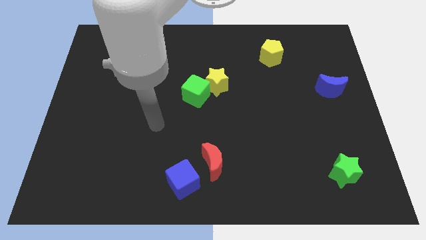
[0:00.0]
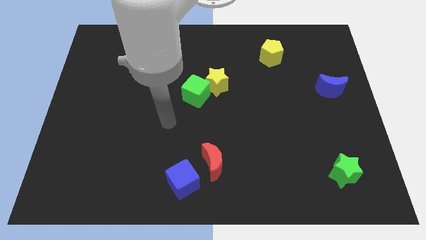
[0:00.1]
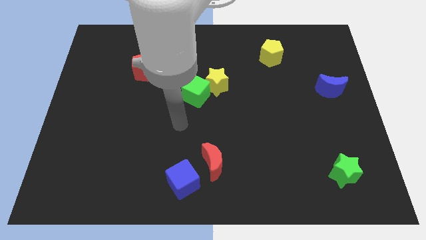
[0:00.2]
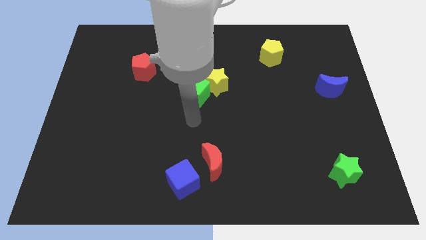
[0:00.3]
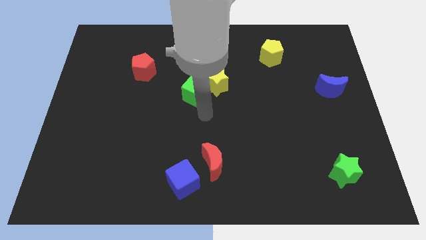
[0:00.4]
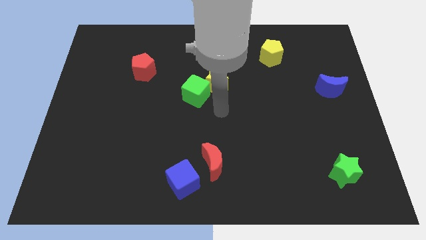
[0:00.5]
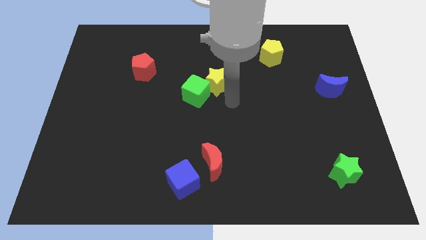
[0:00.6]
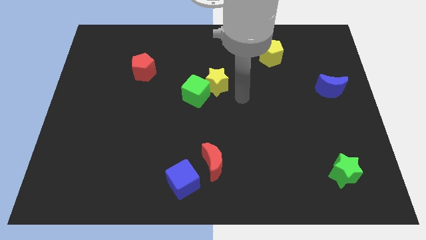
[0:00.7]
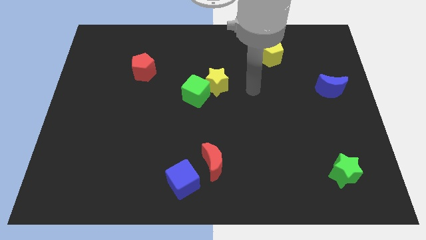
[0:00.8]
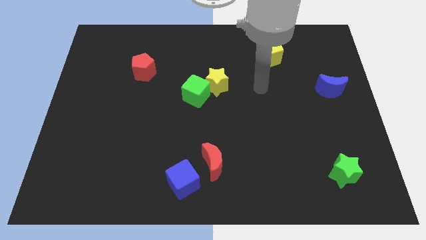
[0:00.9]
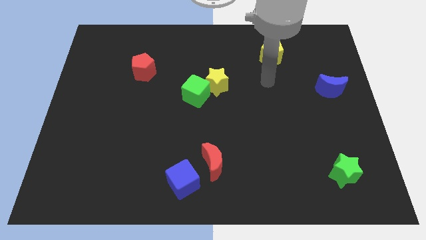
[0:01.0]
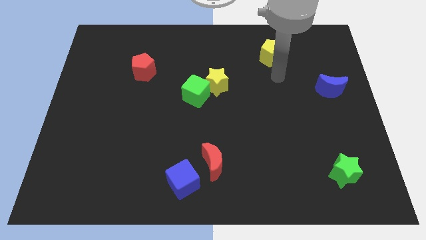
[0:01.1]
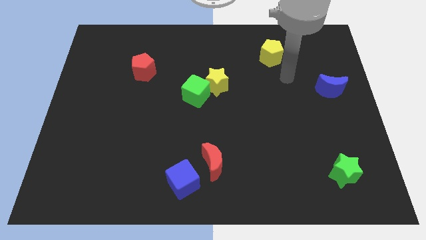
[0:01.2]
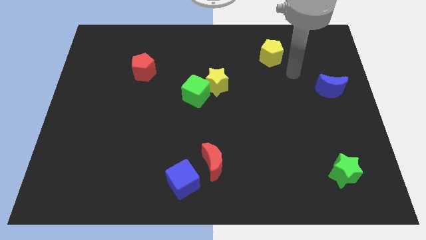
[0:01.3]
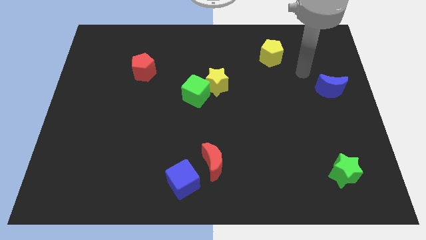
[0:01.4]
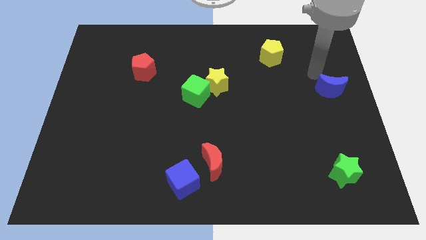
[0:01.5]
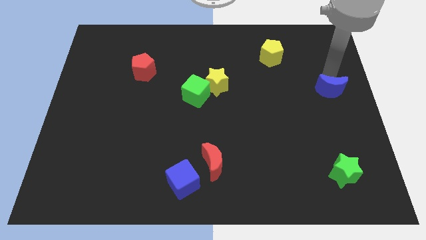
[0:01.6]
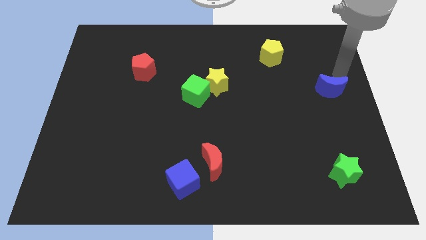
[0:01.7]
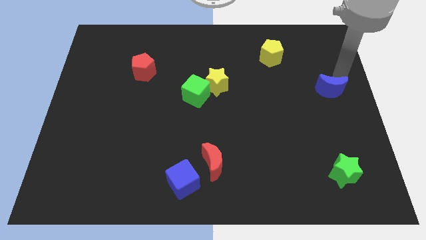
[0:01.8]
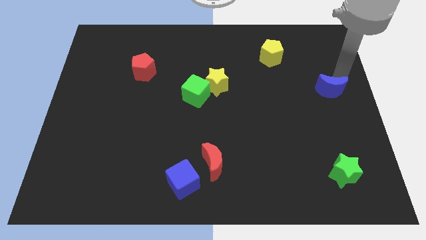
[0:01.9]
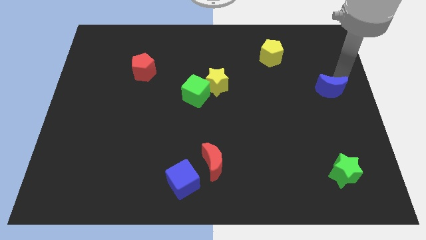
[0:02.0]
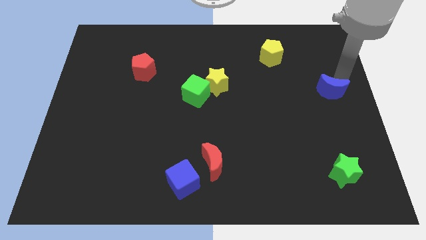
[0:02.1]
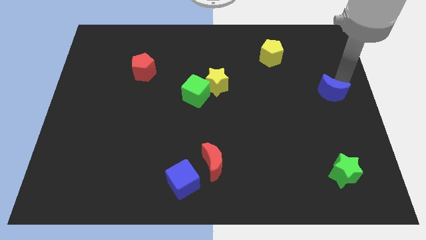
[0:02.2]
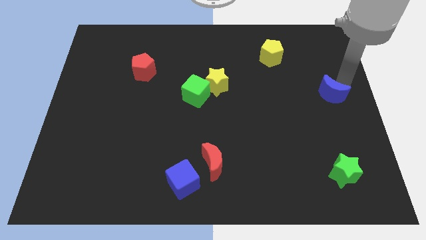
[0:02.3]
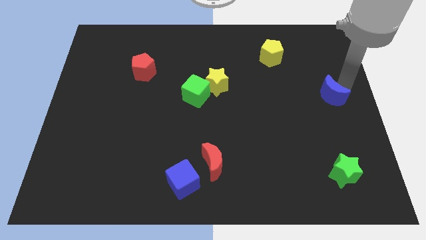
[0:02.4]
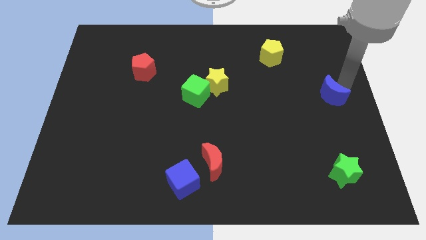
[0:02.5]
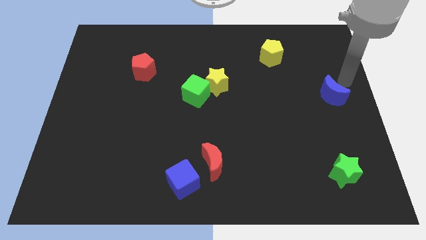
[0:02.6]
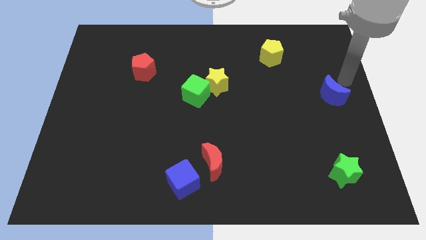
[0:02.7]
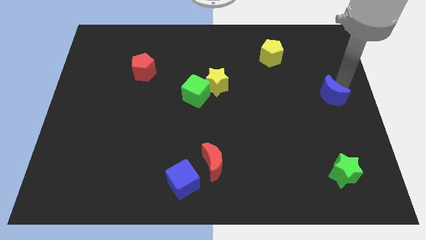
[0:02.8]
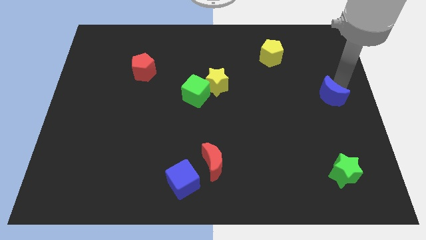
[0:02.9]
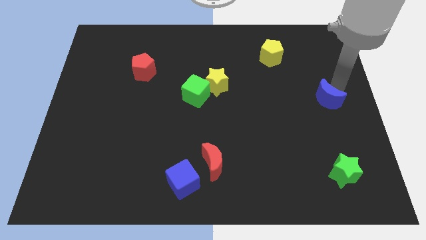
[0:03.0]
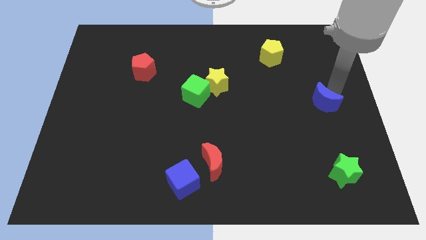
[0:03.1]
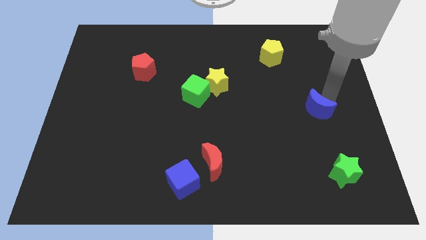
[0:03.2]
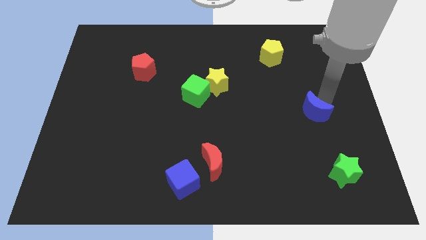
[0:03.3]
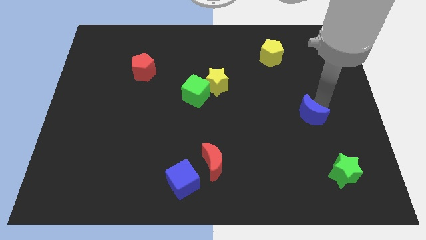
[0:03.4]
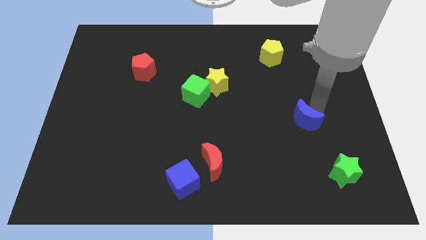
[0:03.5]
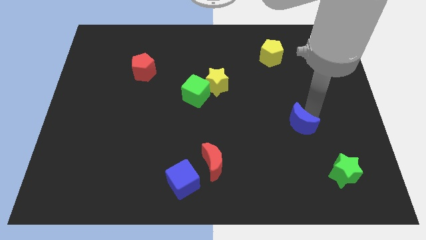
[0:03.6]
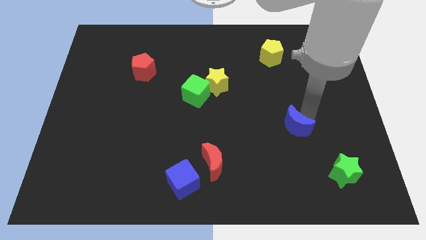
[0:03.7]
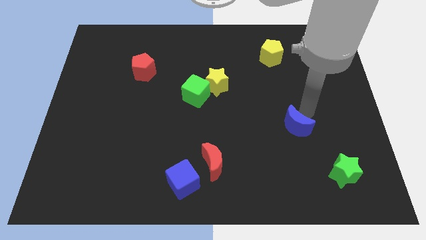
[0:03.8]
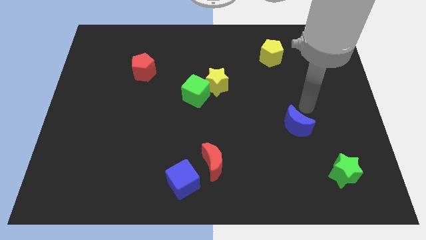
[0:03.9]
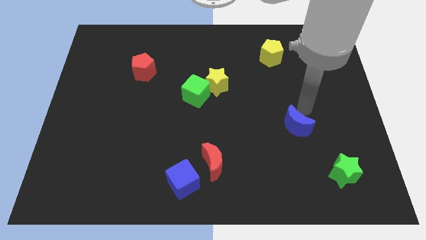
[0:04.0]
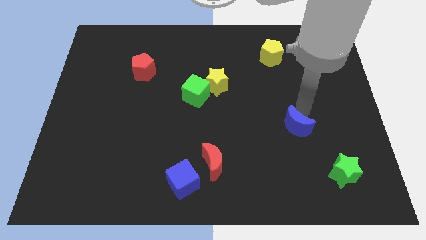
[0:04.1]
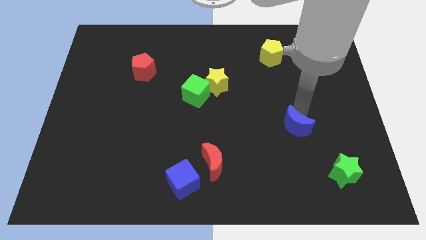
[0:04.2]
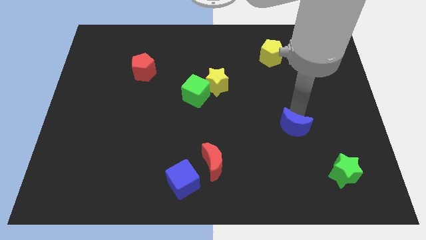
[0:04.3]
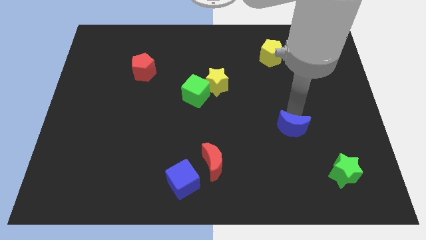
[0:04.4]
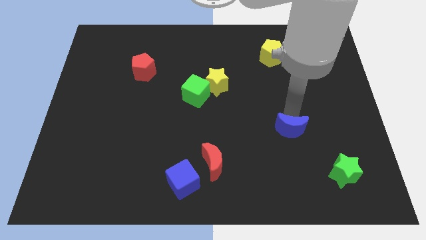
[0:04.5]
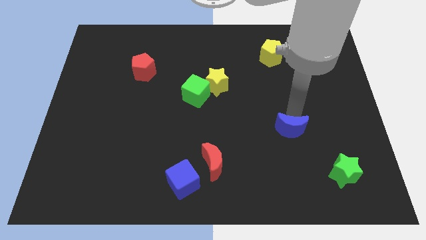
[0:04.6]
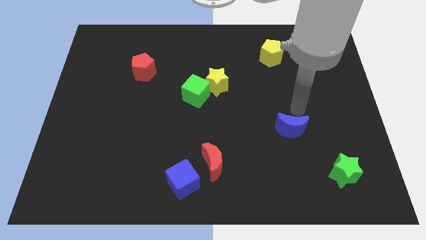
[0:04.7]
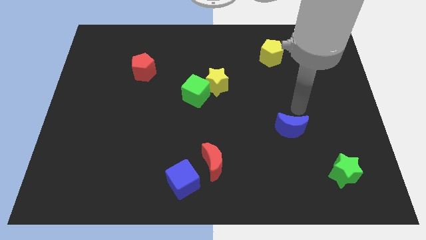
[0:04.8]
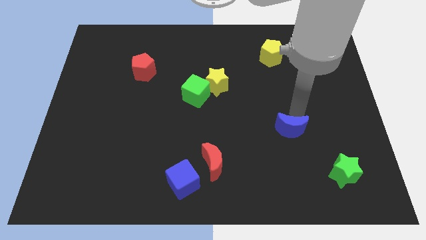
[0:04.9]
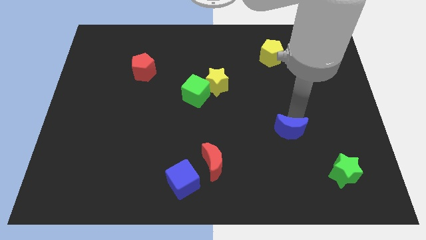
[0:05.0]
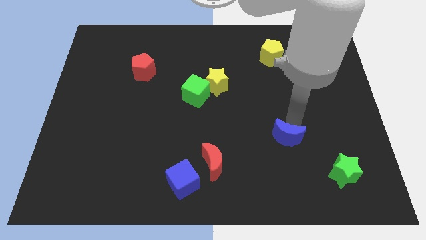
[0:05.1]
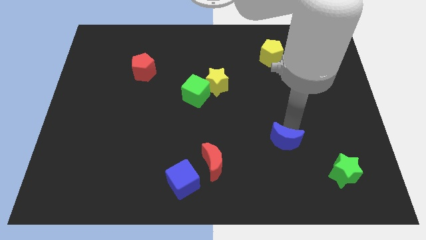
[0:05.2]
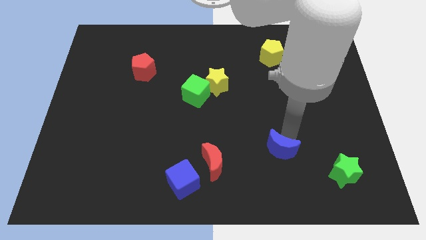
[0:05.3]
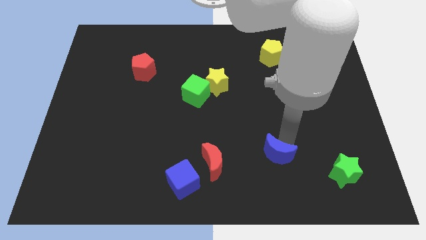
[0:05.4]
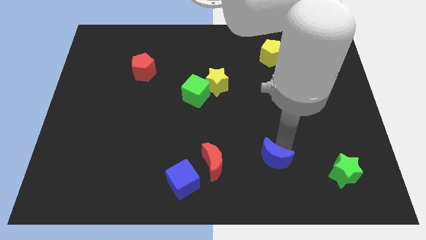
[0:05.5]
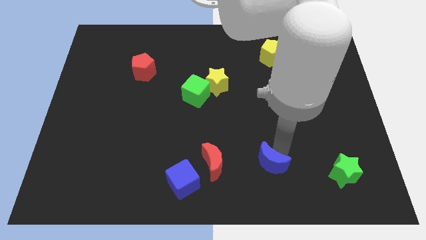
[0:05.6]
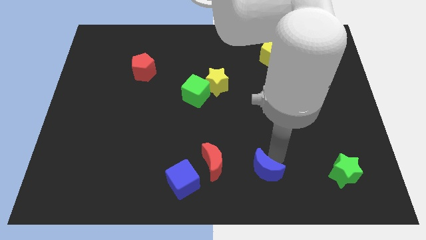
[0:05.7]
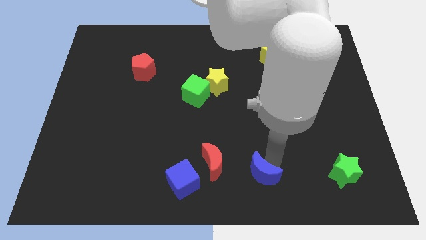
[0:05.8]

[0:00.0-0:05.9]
slide the blue moon to the bottom side
